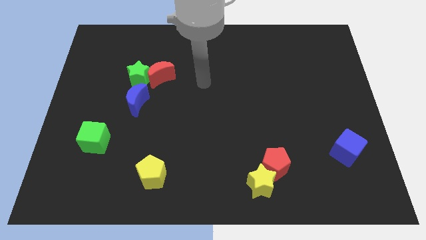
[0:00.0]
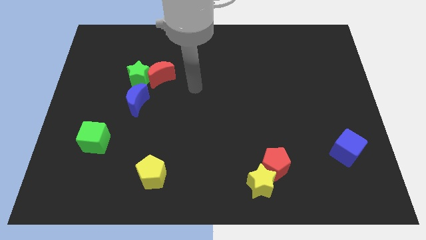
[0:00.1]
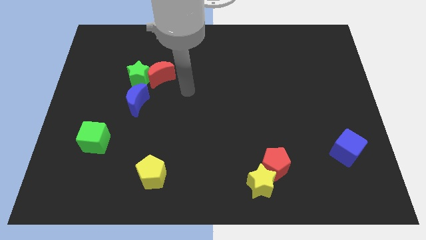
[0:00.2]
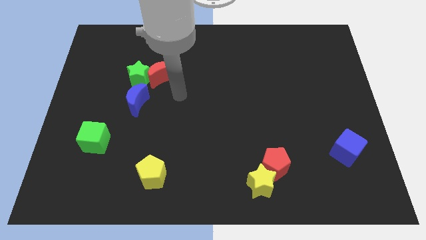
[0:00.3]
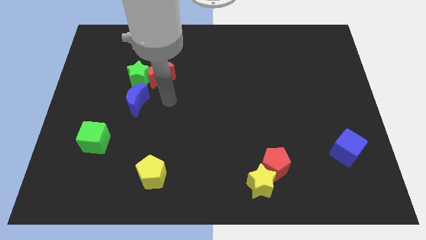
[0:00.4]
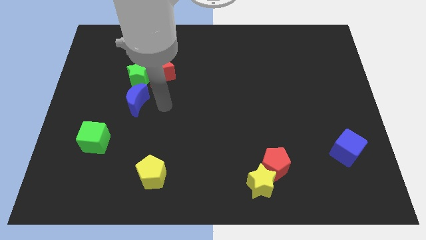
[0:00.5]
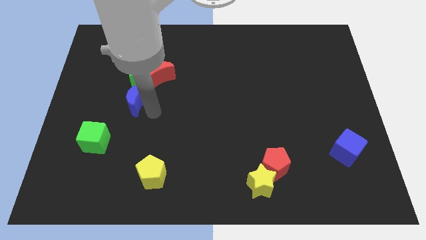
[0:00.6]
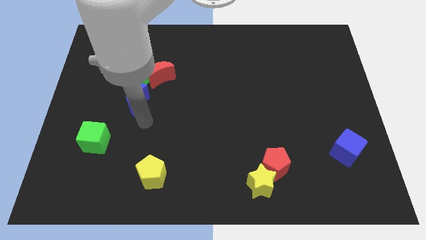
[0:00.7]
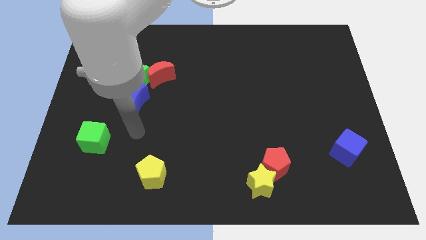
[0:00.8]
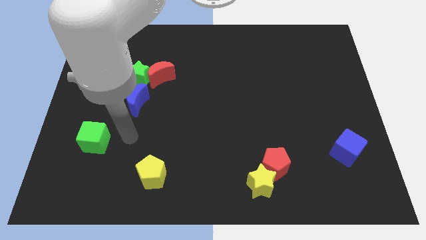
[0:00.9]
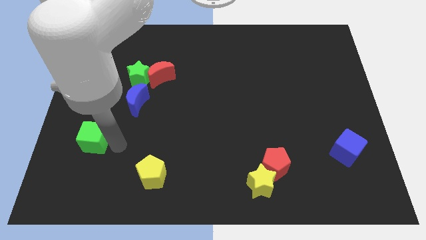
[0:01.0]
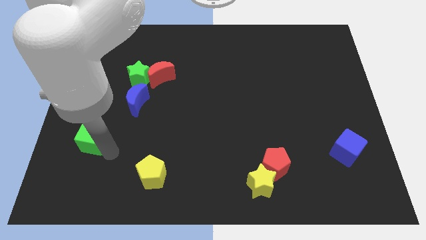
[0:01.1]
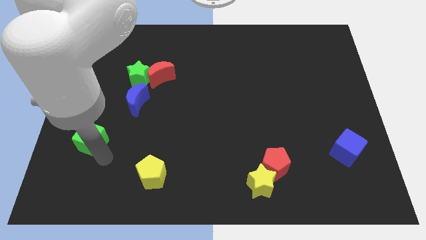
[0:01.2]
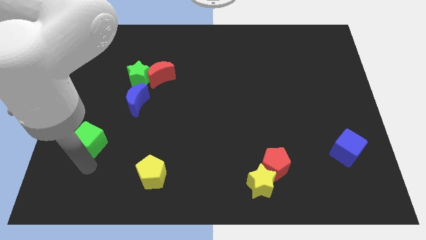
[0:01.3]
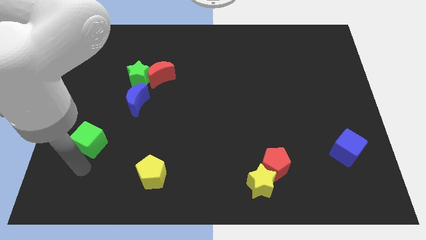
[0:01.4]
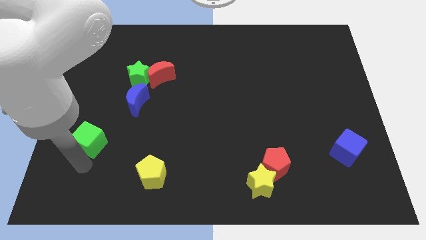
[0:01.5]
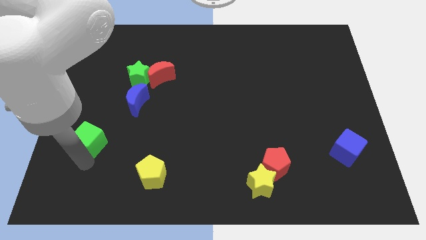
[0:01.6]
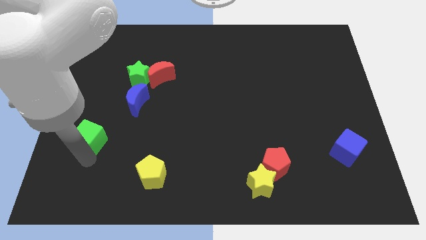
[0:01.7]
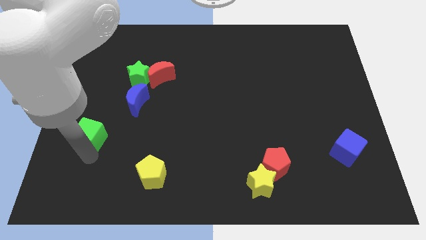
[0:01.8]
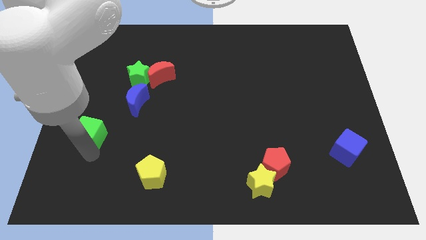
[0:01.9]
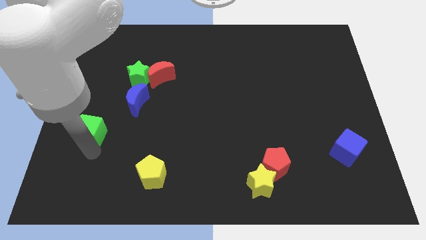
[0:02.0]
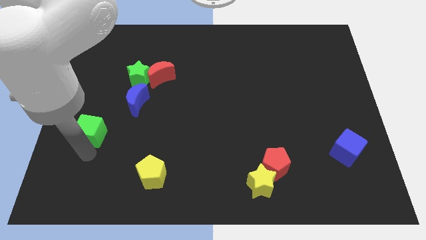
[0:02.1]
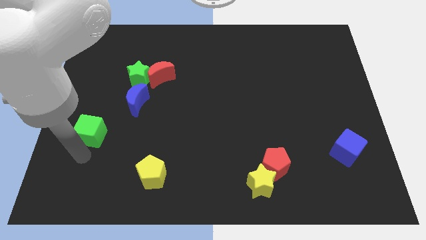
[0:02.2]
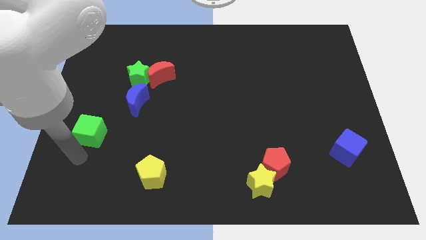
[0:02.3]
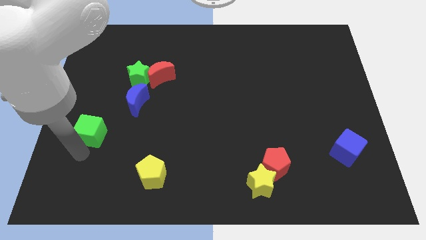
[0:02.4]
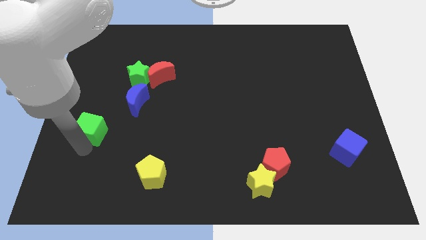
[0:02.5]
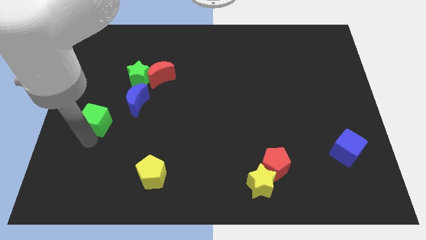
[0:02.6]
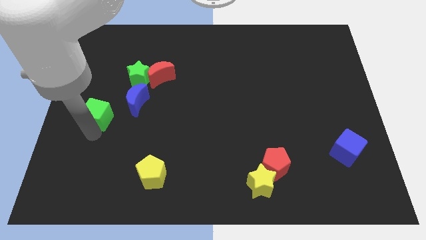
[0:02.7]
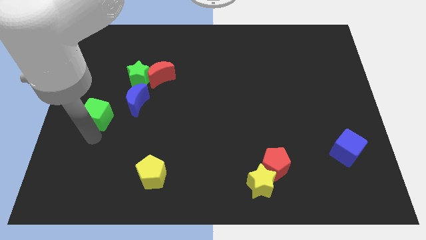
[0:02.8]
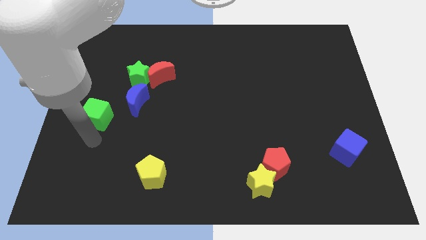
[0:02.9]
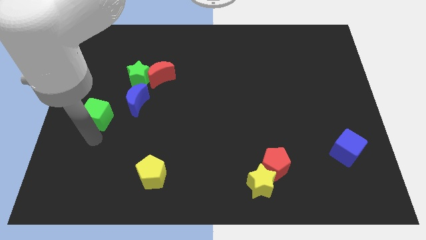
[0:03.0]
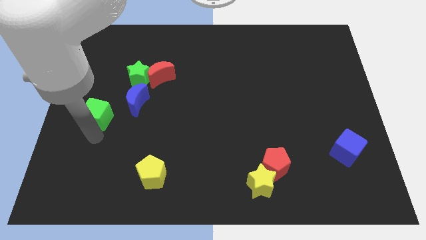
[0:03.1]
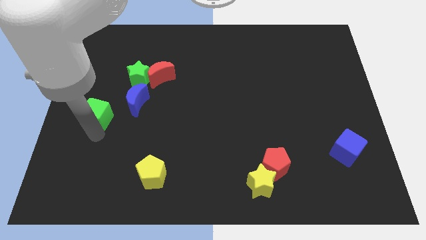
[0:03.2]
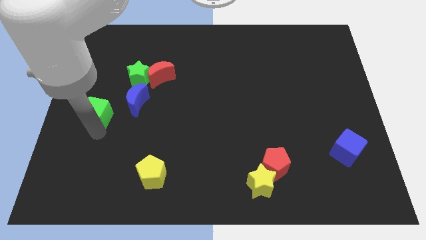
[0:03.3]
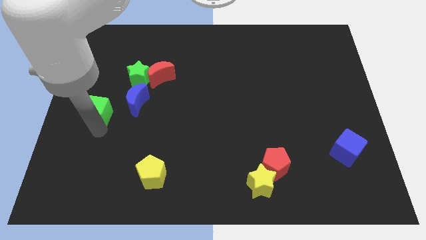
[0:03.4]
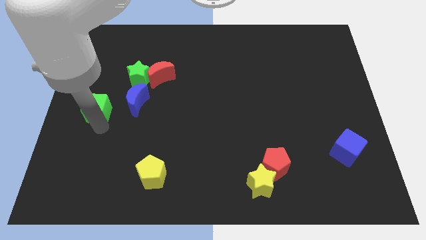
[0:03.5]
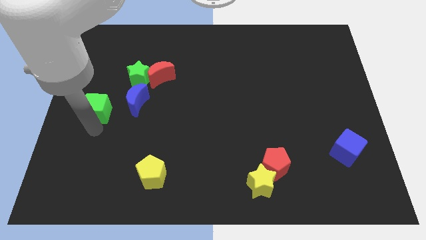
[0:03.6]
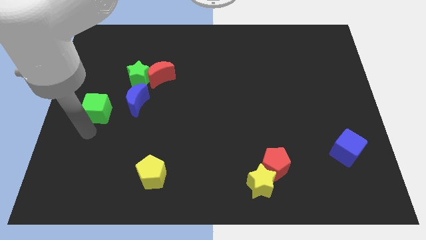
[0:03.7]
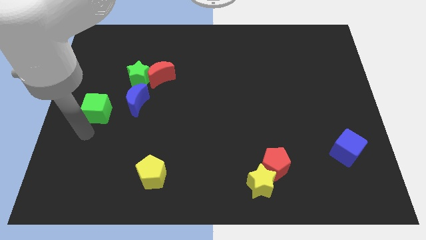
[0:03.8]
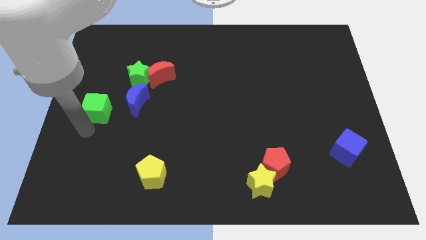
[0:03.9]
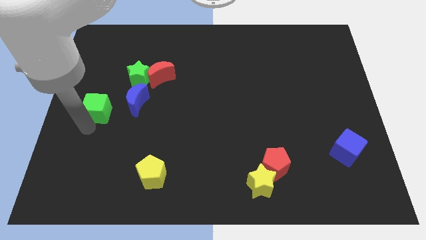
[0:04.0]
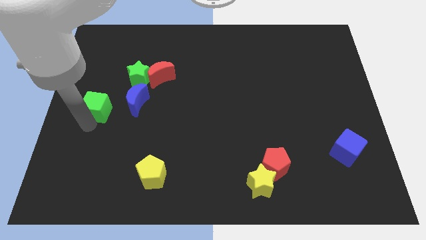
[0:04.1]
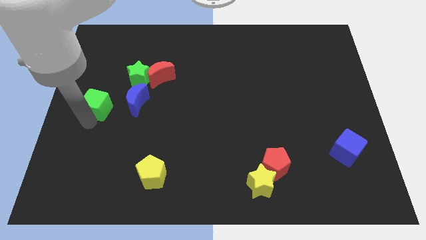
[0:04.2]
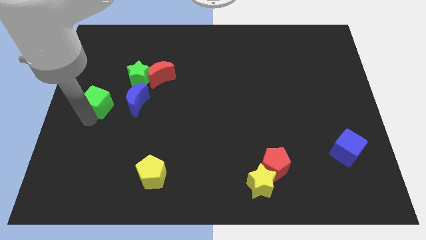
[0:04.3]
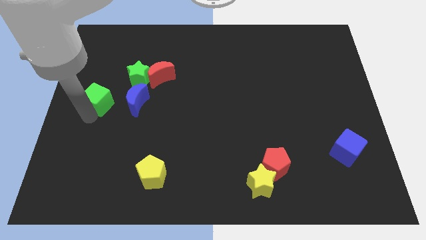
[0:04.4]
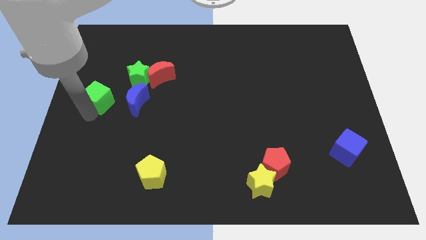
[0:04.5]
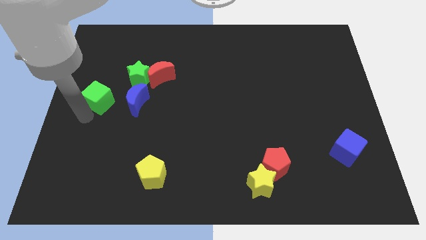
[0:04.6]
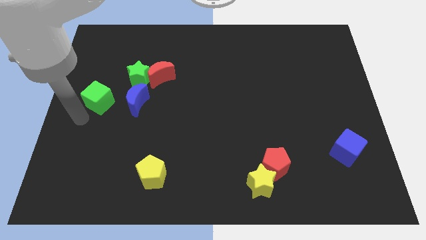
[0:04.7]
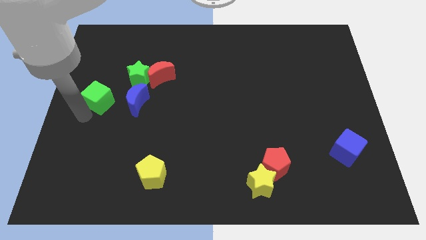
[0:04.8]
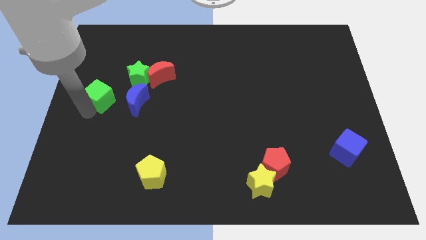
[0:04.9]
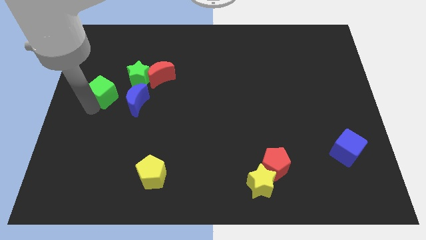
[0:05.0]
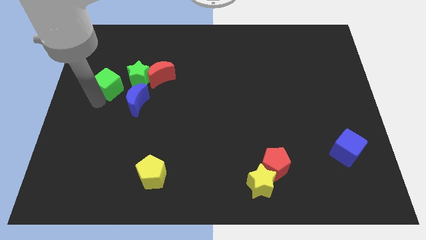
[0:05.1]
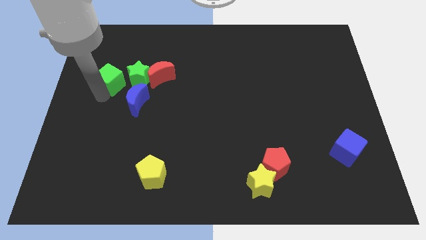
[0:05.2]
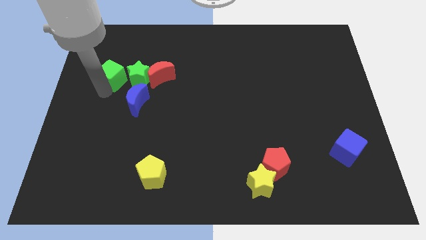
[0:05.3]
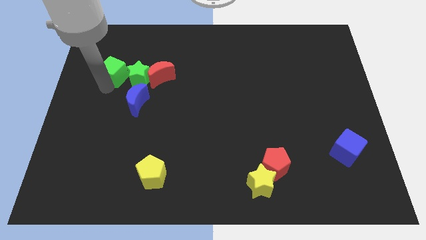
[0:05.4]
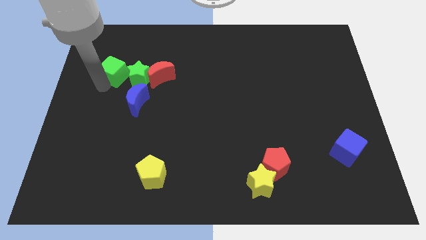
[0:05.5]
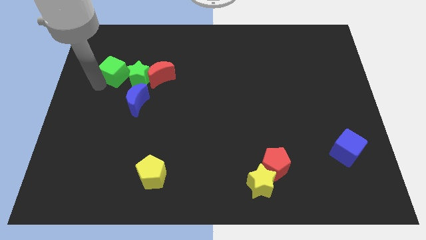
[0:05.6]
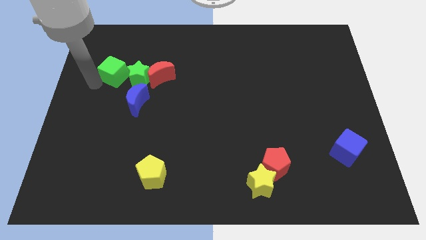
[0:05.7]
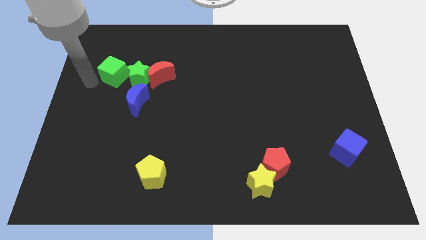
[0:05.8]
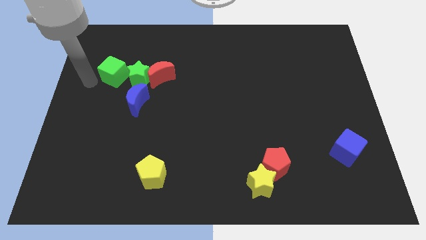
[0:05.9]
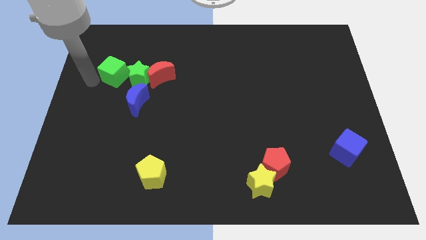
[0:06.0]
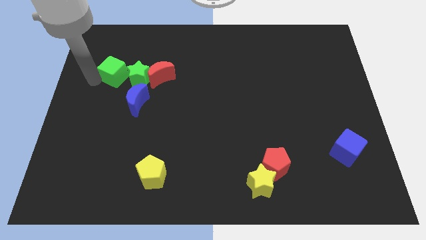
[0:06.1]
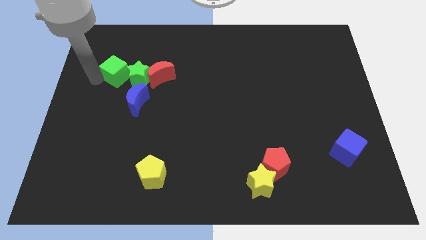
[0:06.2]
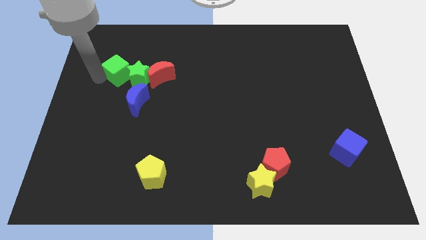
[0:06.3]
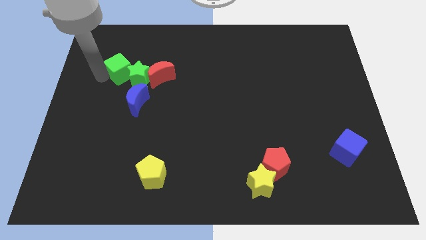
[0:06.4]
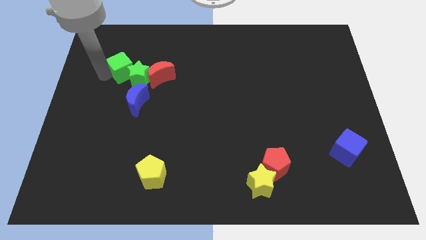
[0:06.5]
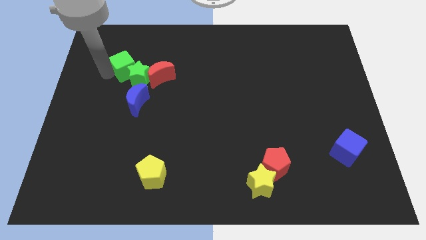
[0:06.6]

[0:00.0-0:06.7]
push the green cube to the top left side of the red moon
